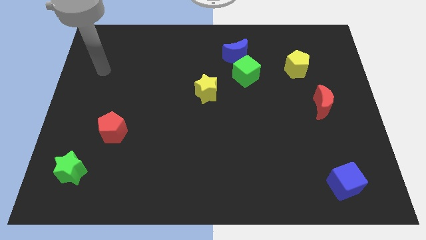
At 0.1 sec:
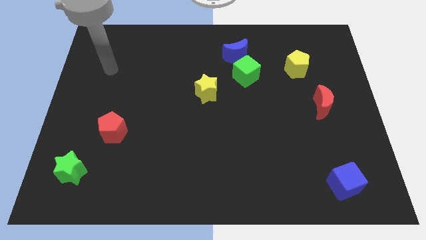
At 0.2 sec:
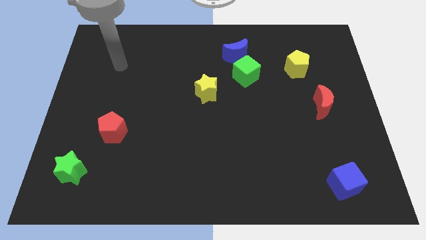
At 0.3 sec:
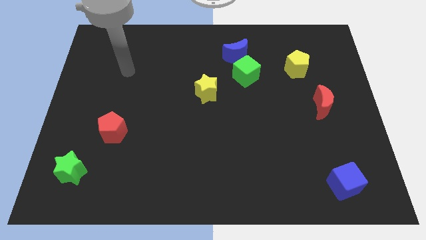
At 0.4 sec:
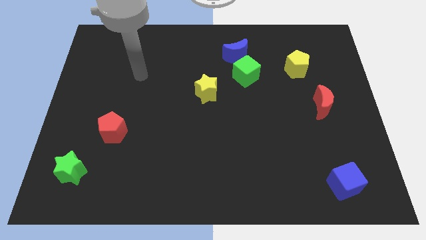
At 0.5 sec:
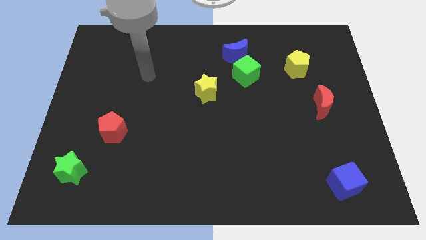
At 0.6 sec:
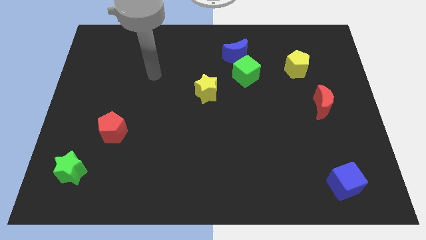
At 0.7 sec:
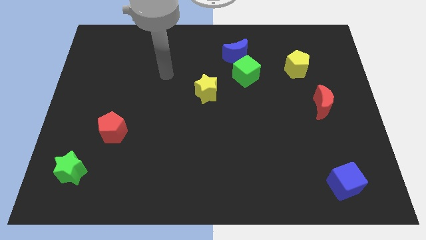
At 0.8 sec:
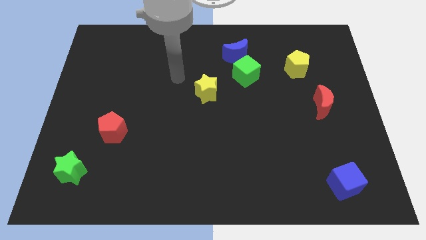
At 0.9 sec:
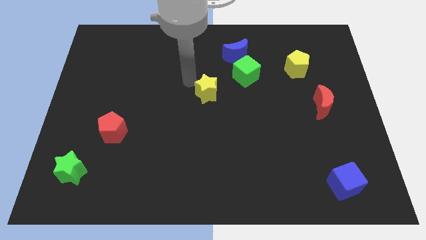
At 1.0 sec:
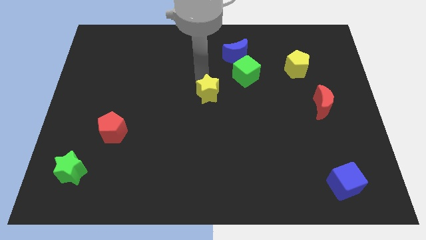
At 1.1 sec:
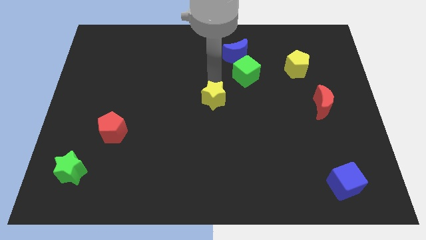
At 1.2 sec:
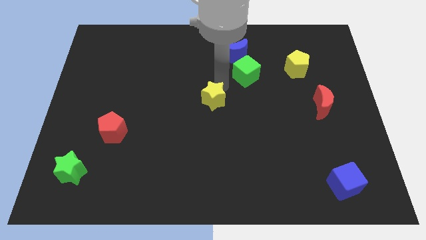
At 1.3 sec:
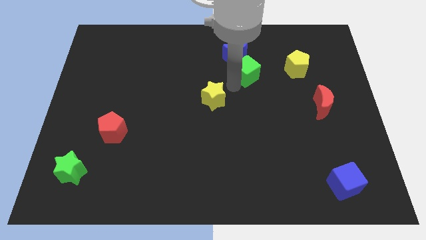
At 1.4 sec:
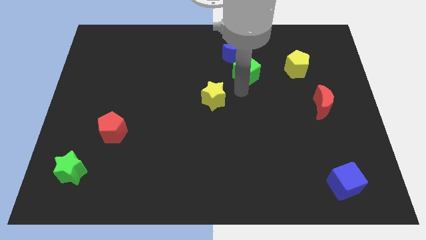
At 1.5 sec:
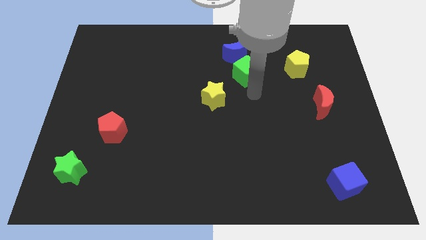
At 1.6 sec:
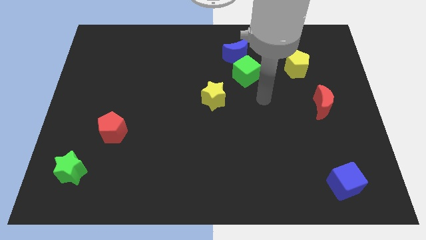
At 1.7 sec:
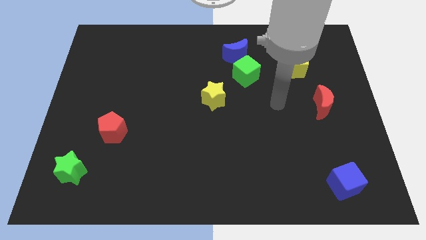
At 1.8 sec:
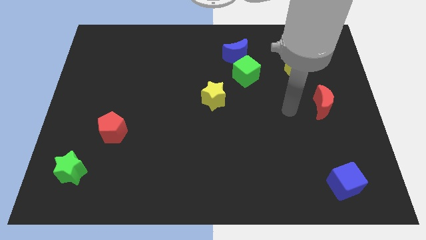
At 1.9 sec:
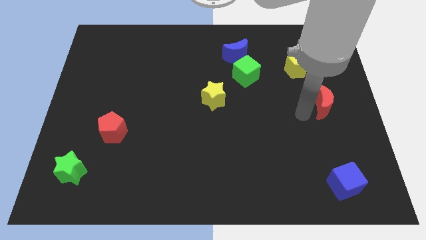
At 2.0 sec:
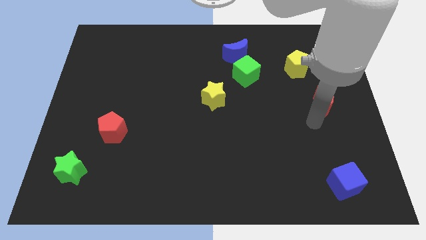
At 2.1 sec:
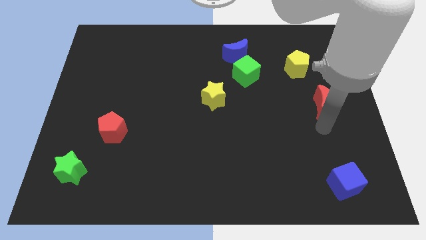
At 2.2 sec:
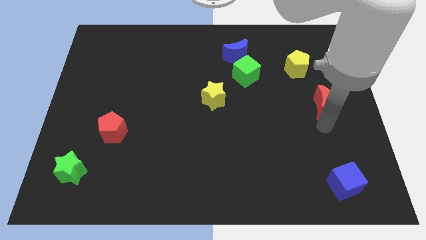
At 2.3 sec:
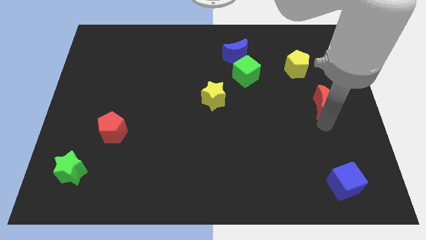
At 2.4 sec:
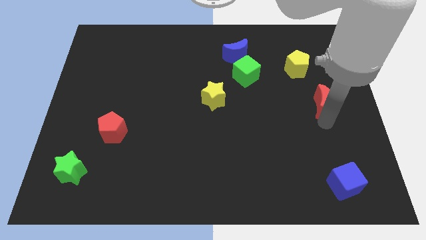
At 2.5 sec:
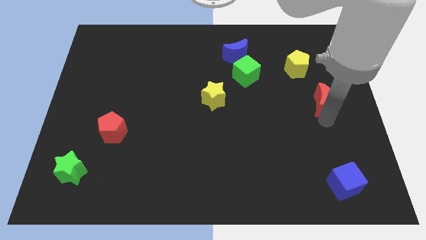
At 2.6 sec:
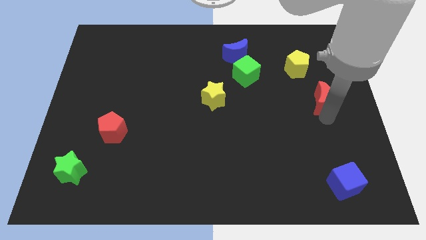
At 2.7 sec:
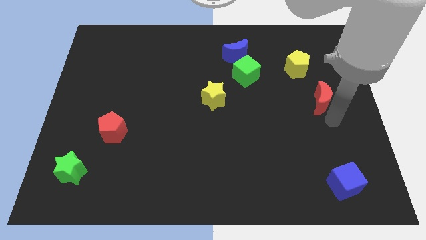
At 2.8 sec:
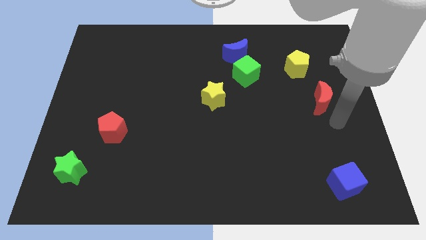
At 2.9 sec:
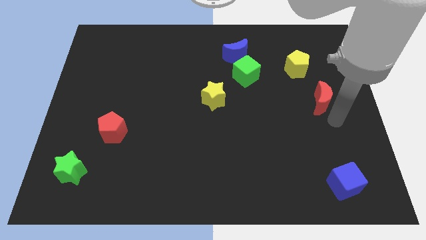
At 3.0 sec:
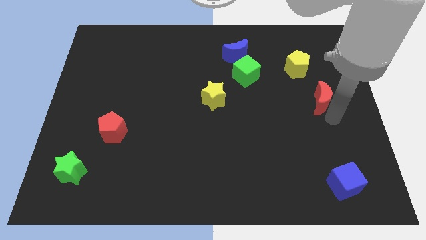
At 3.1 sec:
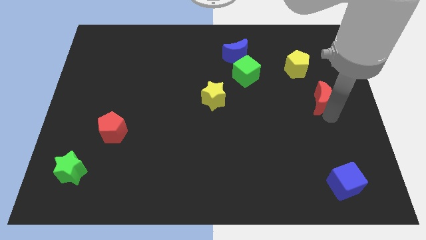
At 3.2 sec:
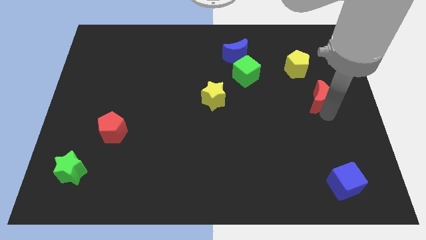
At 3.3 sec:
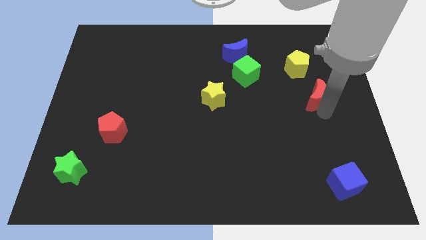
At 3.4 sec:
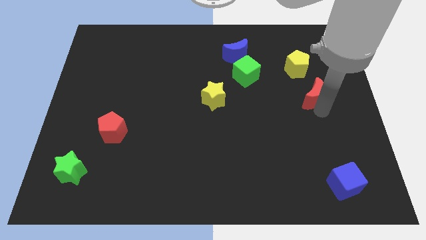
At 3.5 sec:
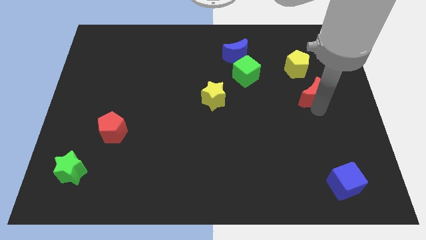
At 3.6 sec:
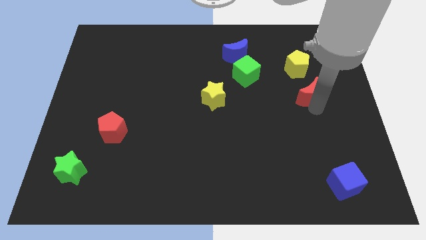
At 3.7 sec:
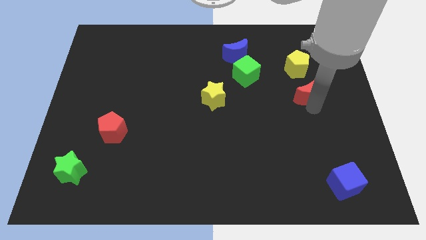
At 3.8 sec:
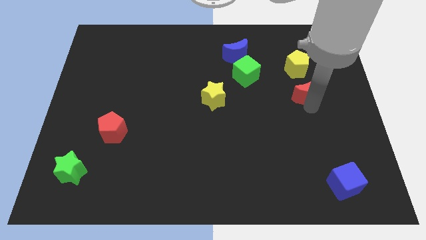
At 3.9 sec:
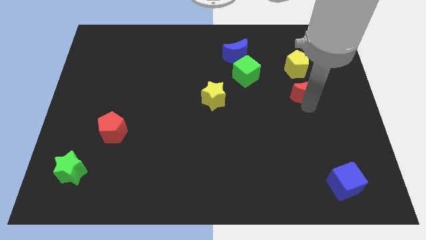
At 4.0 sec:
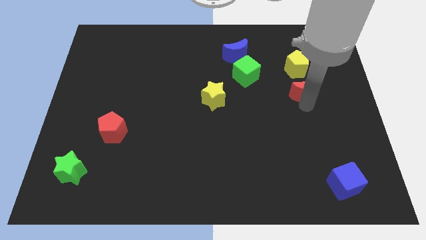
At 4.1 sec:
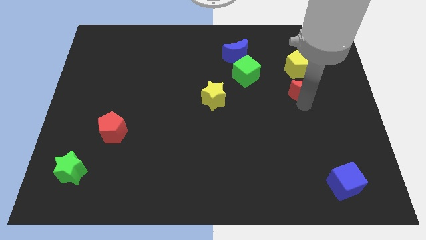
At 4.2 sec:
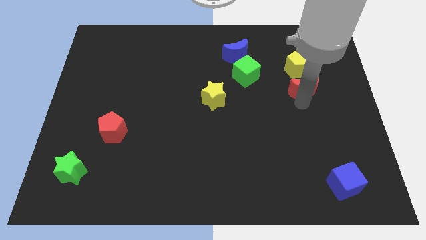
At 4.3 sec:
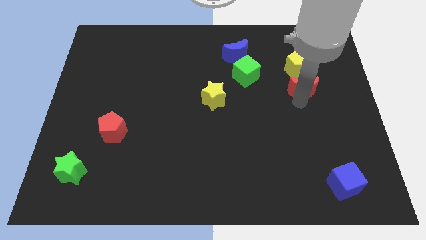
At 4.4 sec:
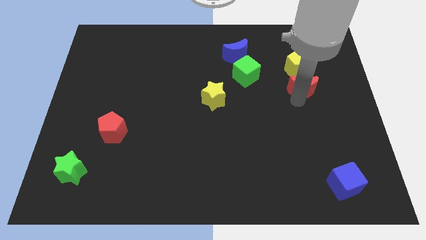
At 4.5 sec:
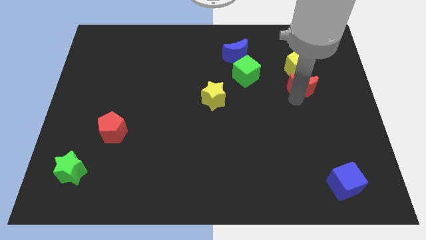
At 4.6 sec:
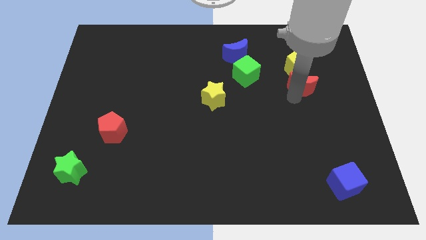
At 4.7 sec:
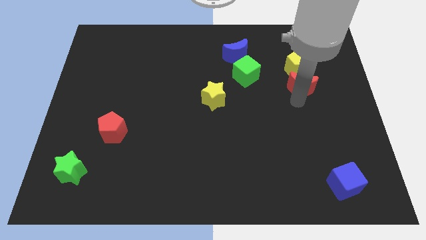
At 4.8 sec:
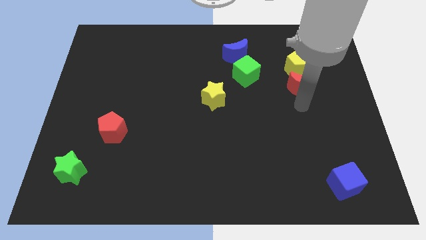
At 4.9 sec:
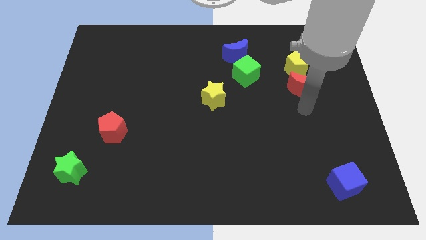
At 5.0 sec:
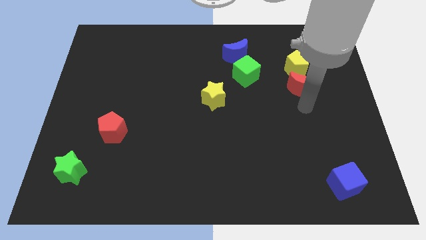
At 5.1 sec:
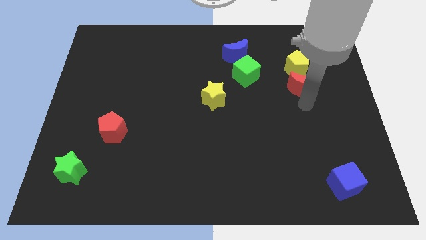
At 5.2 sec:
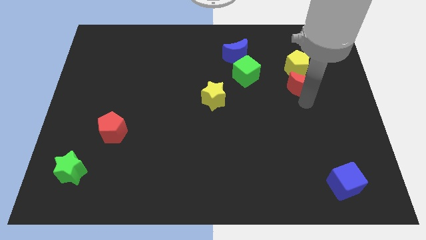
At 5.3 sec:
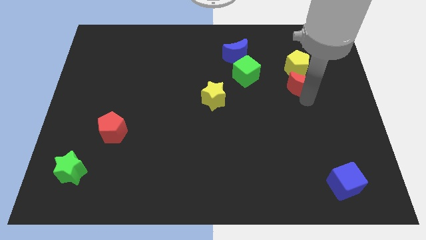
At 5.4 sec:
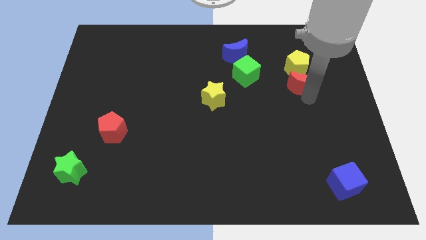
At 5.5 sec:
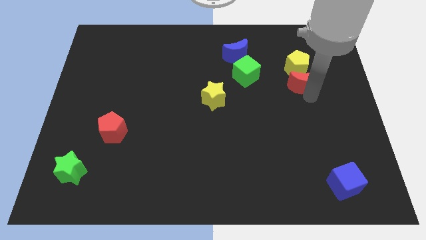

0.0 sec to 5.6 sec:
move the red moon towards the yellow pentagon

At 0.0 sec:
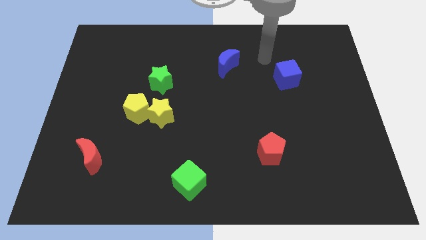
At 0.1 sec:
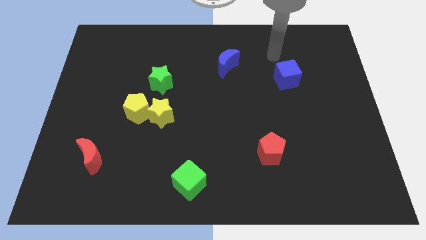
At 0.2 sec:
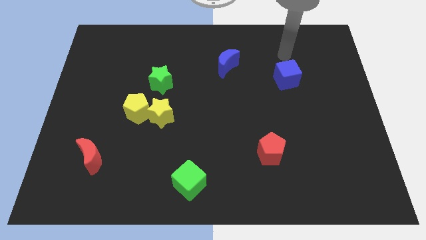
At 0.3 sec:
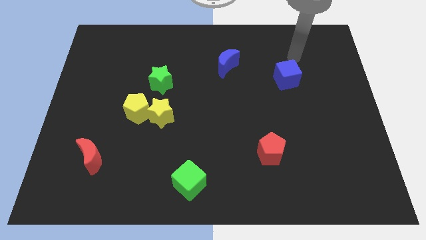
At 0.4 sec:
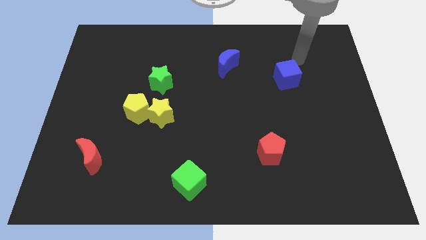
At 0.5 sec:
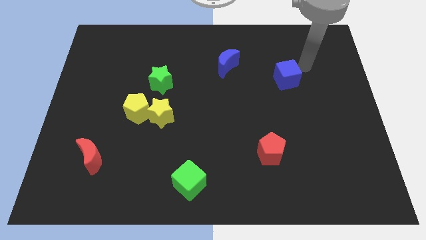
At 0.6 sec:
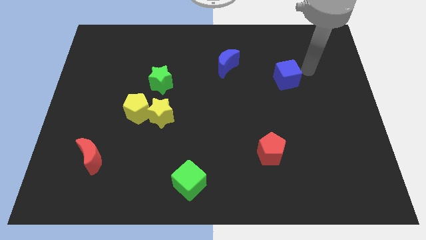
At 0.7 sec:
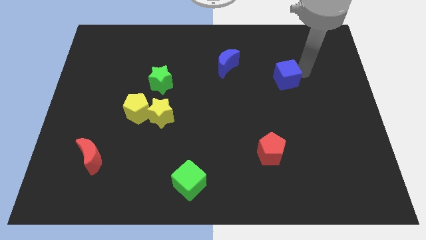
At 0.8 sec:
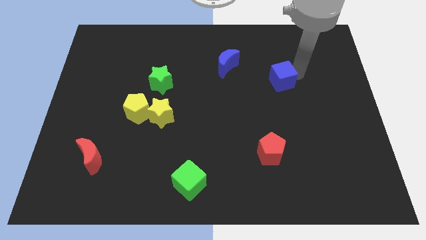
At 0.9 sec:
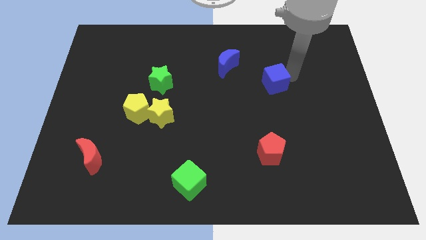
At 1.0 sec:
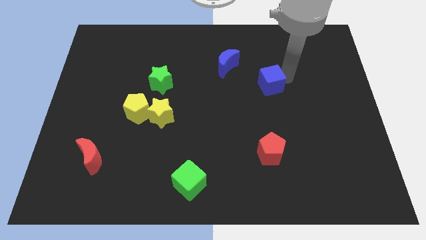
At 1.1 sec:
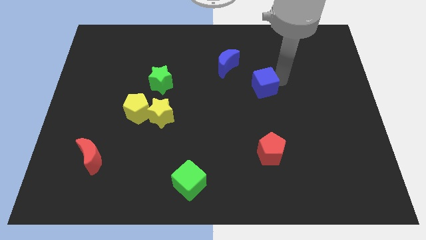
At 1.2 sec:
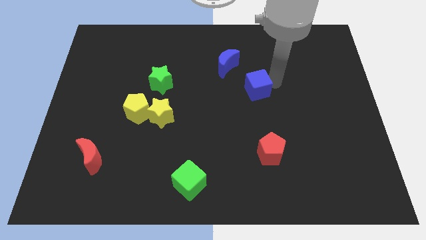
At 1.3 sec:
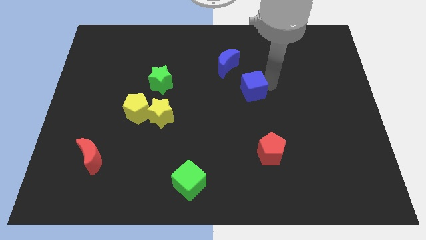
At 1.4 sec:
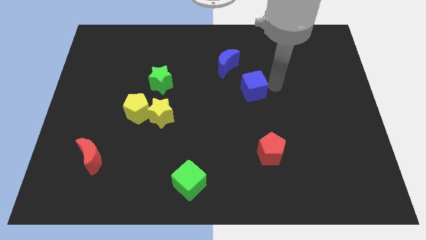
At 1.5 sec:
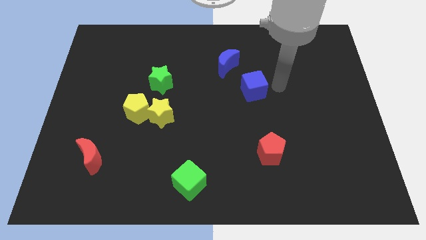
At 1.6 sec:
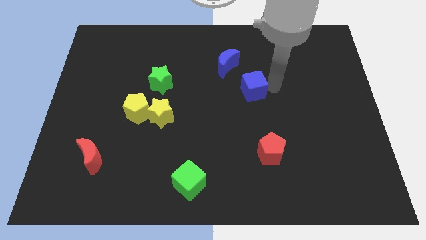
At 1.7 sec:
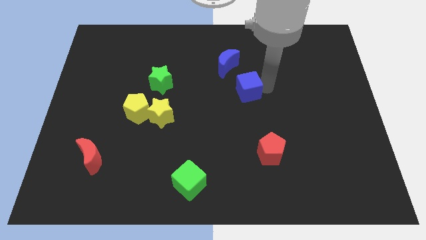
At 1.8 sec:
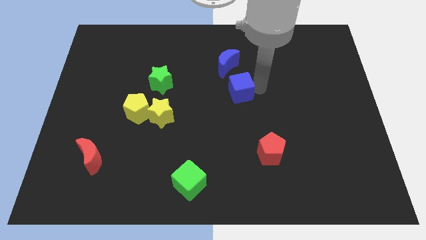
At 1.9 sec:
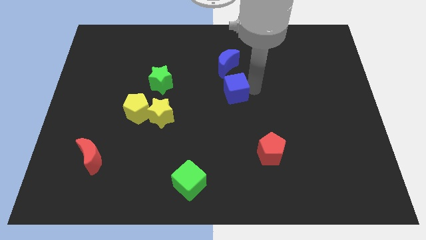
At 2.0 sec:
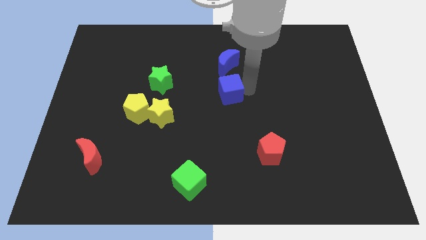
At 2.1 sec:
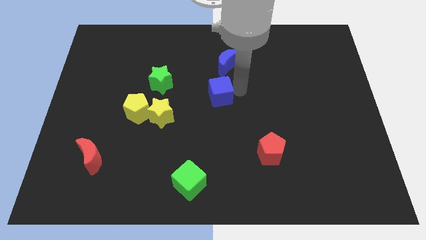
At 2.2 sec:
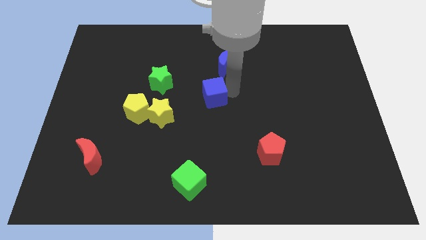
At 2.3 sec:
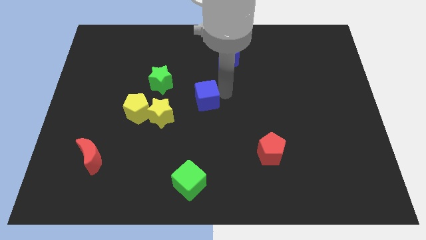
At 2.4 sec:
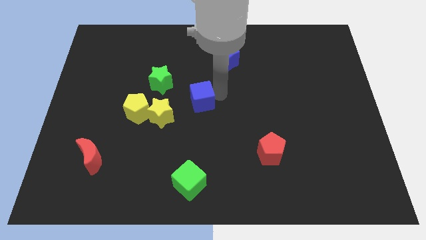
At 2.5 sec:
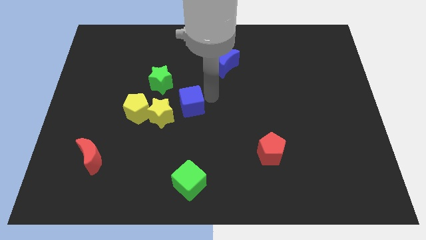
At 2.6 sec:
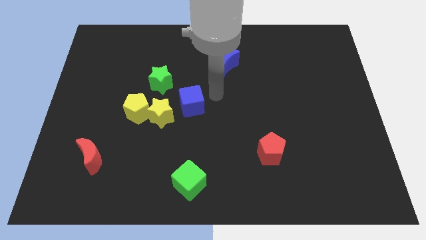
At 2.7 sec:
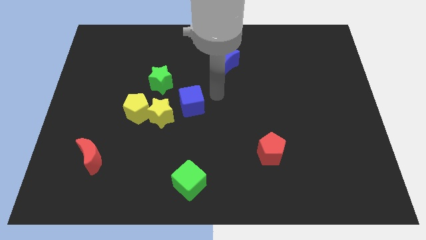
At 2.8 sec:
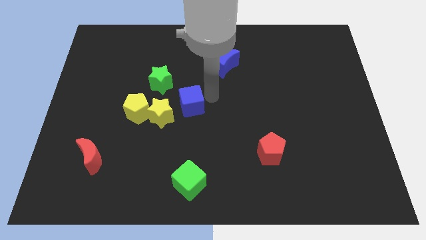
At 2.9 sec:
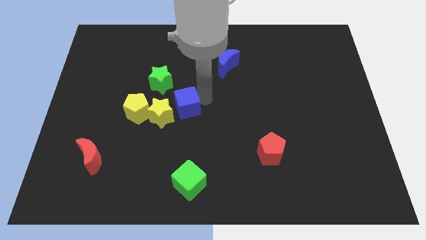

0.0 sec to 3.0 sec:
slide the blue cube towards the yellow star
